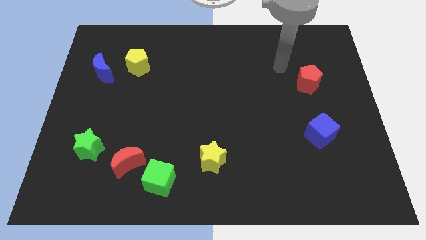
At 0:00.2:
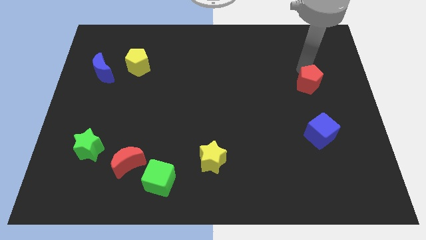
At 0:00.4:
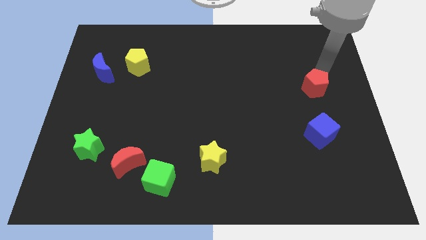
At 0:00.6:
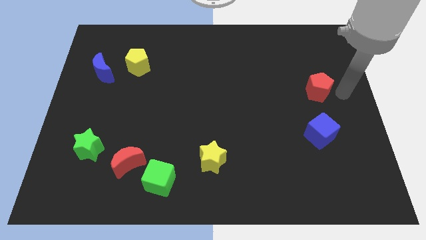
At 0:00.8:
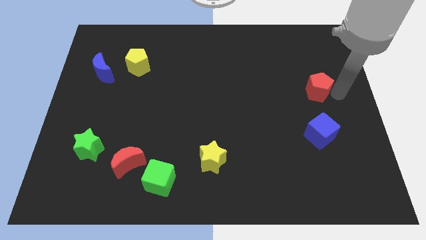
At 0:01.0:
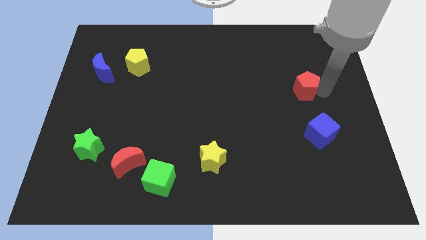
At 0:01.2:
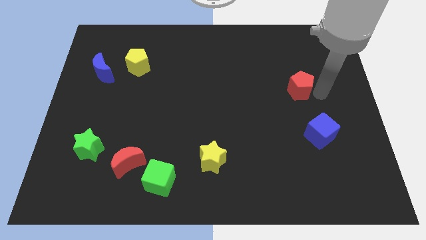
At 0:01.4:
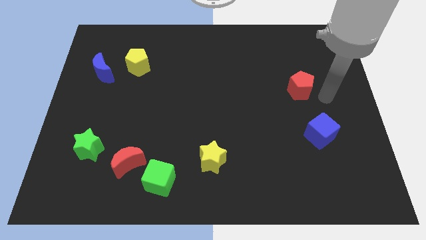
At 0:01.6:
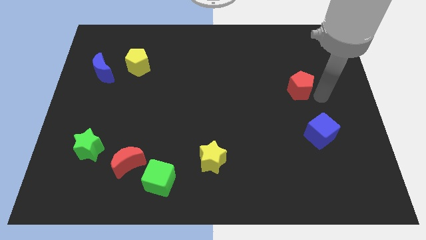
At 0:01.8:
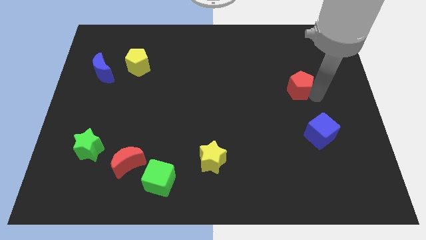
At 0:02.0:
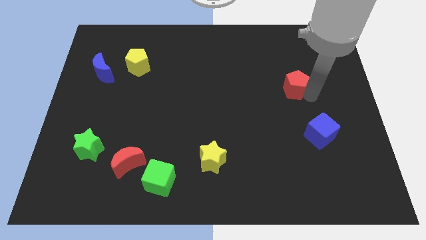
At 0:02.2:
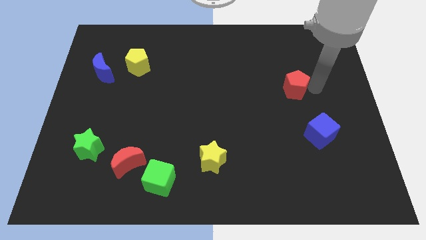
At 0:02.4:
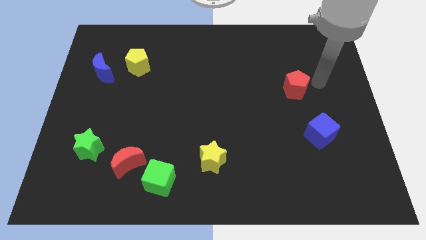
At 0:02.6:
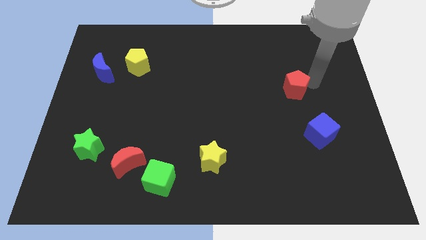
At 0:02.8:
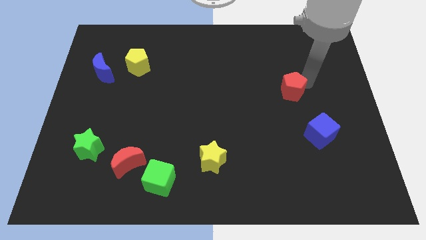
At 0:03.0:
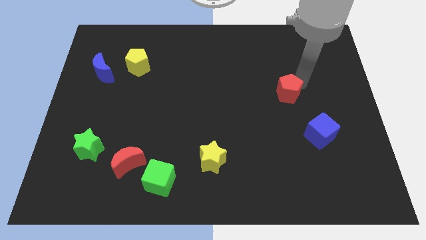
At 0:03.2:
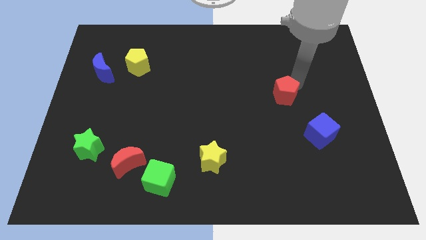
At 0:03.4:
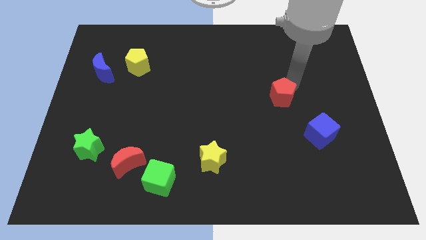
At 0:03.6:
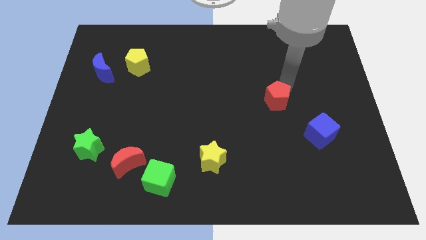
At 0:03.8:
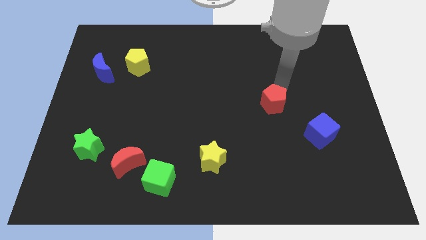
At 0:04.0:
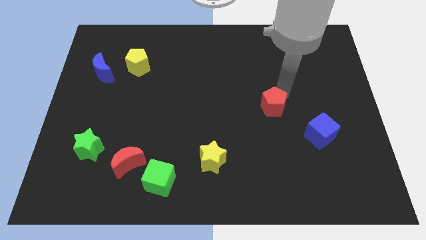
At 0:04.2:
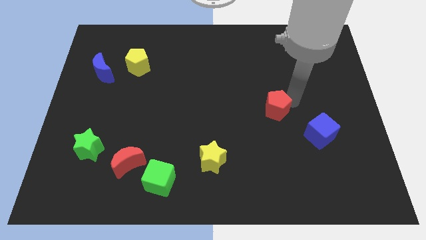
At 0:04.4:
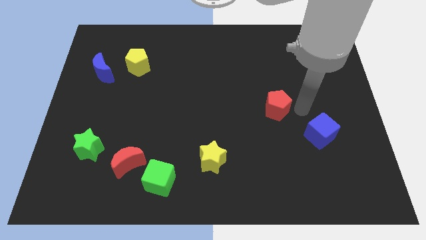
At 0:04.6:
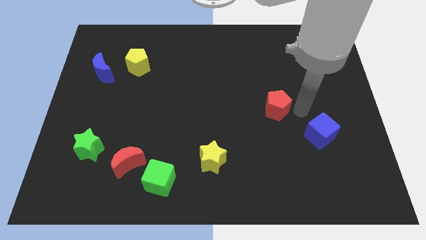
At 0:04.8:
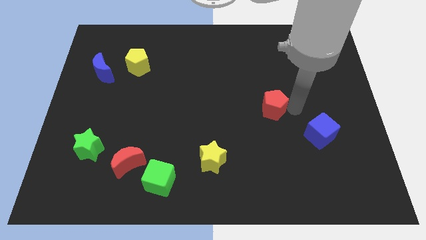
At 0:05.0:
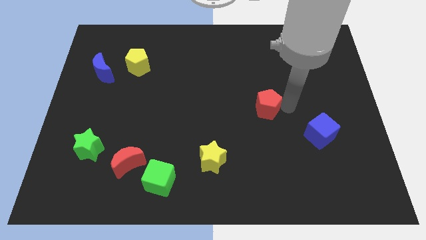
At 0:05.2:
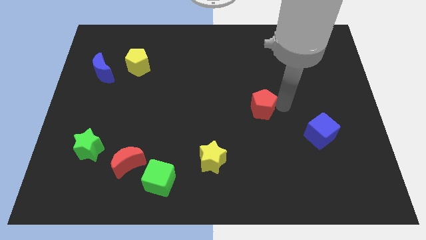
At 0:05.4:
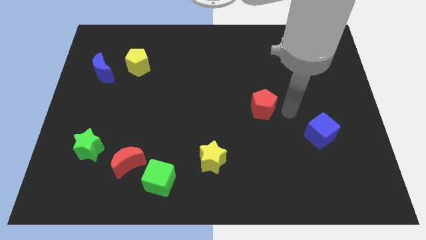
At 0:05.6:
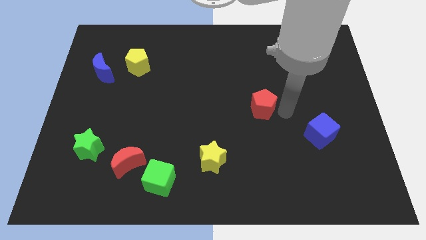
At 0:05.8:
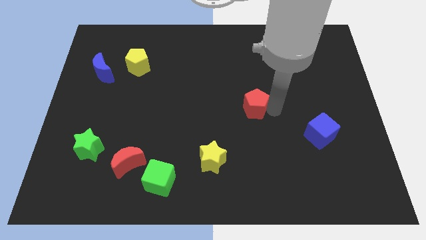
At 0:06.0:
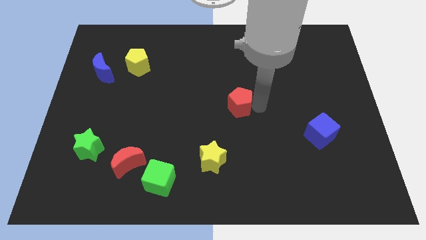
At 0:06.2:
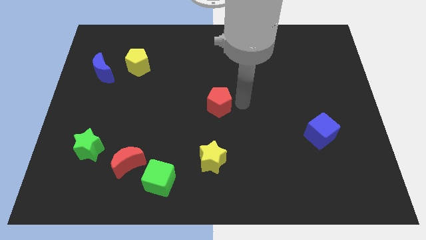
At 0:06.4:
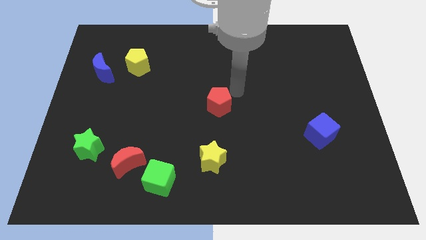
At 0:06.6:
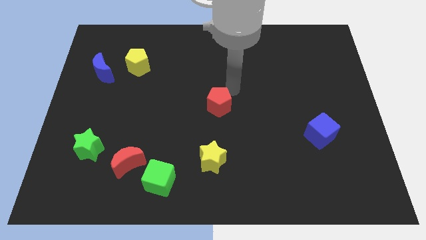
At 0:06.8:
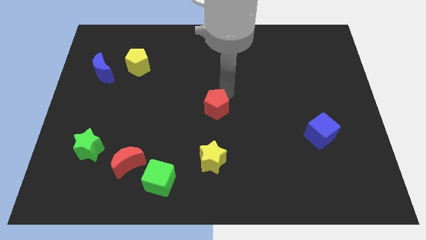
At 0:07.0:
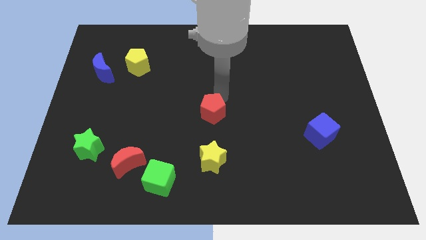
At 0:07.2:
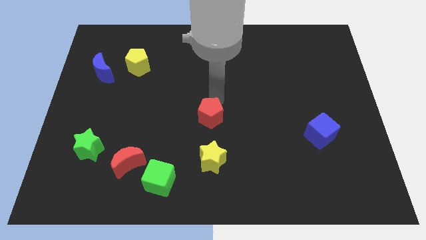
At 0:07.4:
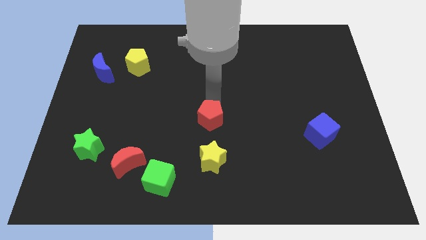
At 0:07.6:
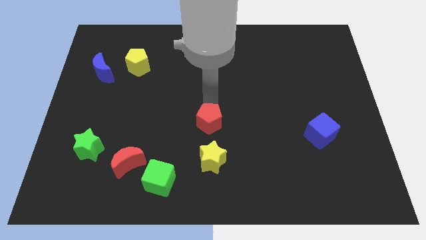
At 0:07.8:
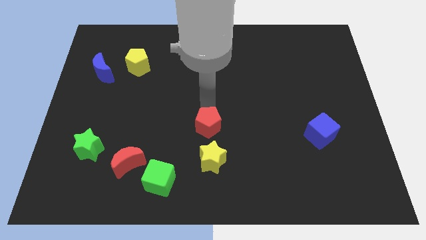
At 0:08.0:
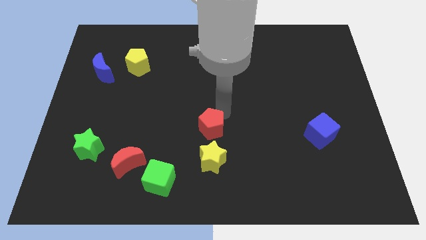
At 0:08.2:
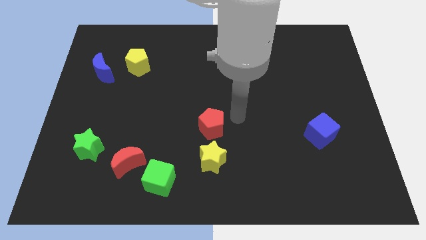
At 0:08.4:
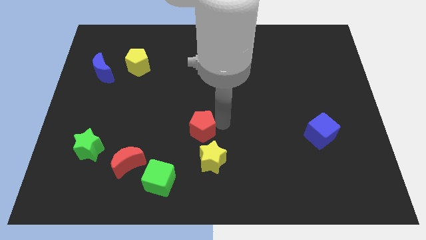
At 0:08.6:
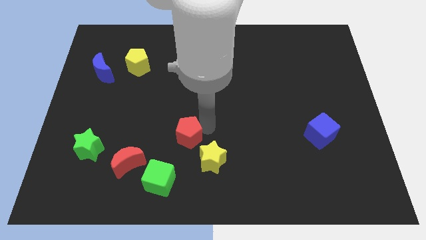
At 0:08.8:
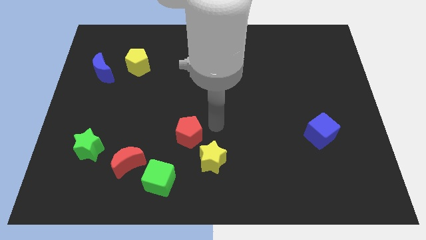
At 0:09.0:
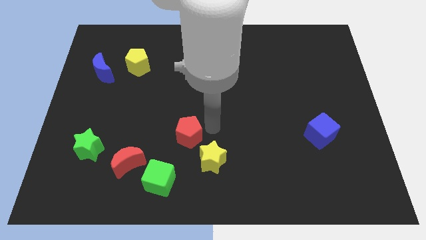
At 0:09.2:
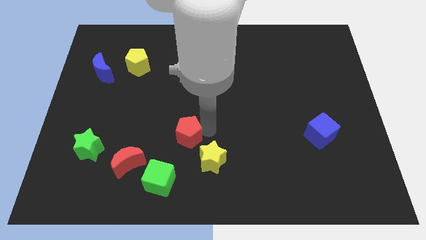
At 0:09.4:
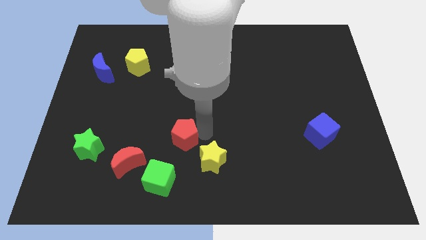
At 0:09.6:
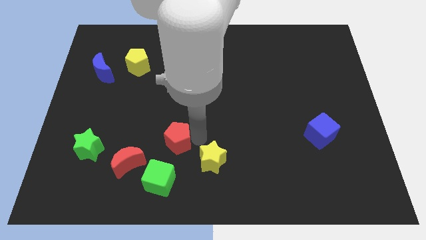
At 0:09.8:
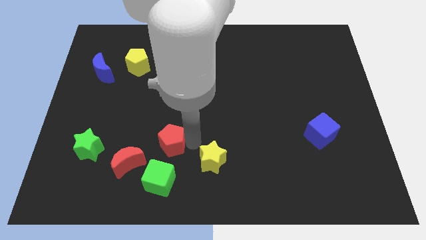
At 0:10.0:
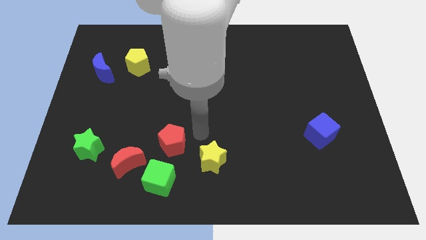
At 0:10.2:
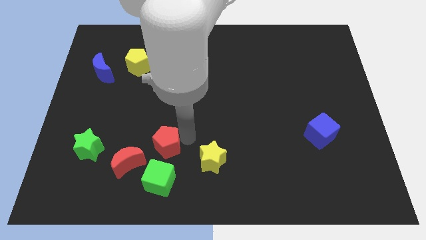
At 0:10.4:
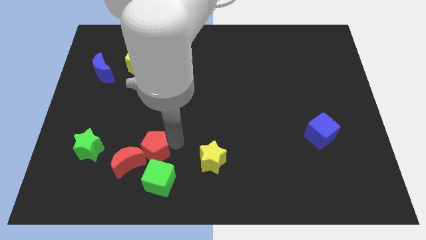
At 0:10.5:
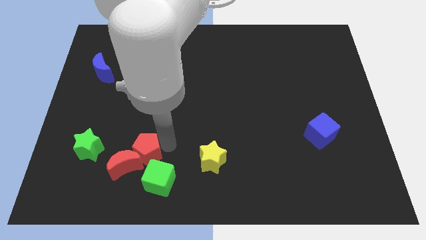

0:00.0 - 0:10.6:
move the red pentagon to the red moon

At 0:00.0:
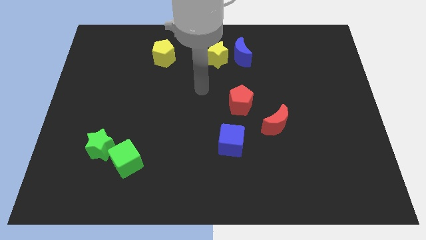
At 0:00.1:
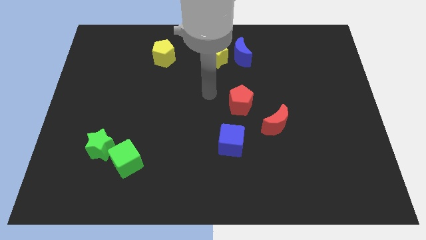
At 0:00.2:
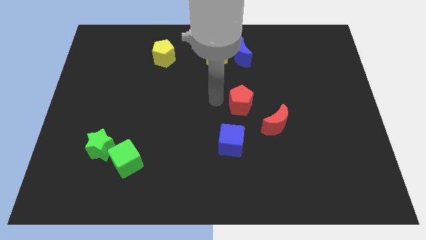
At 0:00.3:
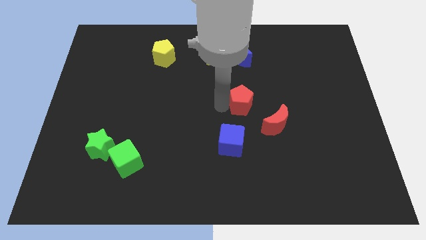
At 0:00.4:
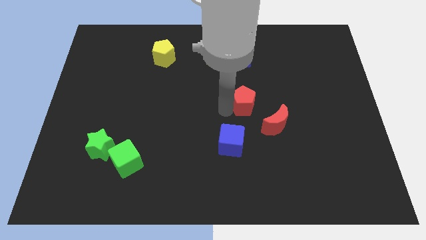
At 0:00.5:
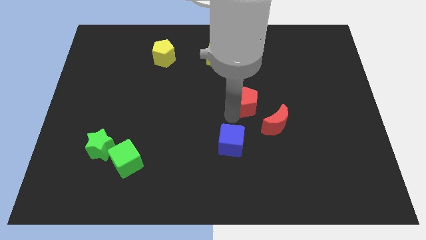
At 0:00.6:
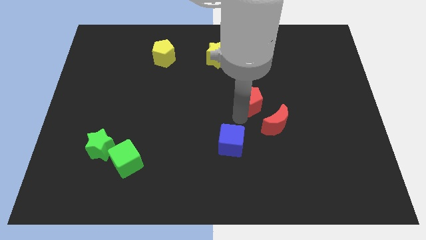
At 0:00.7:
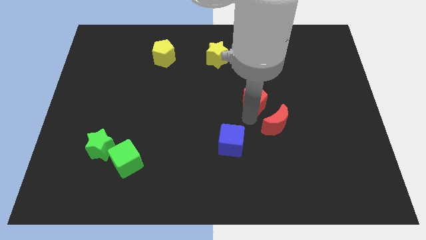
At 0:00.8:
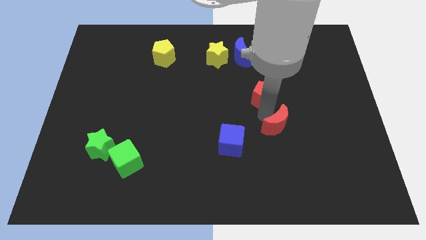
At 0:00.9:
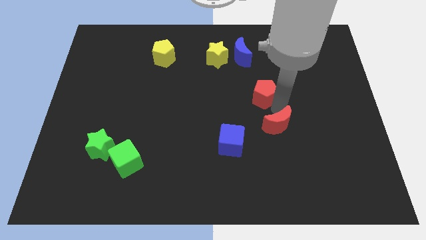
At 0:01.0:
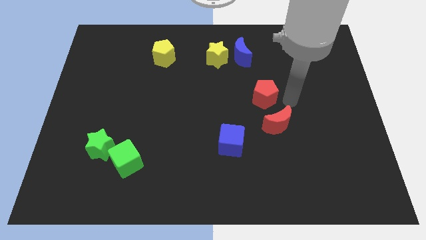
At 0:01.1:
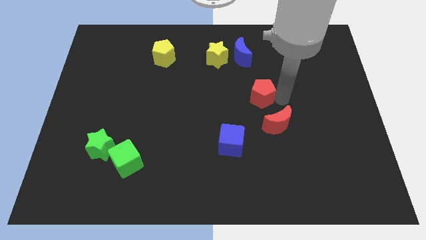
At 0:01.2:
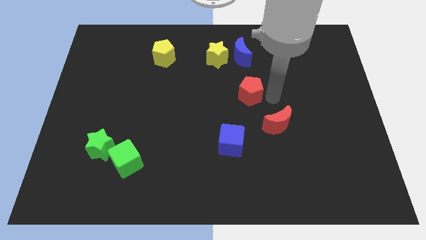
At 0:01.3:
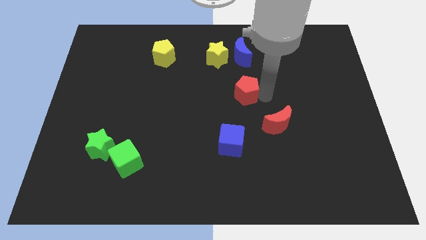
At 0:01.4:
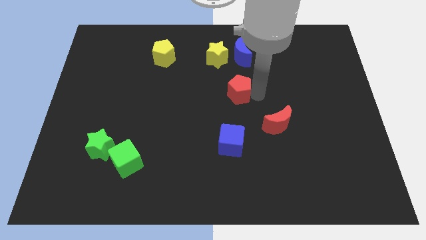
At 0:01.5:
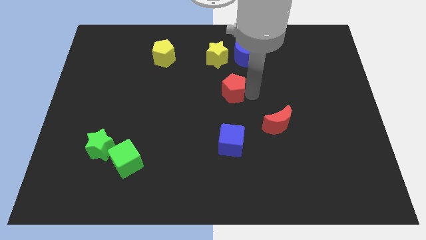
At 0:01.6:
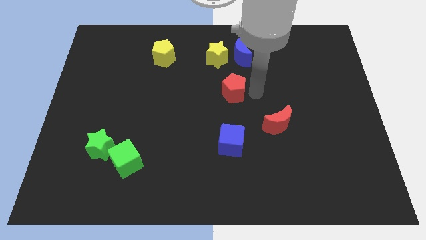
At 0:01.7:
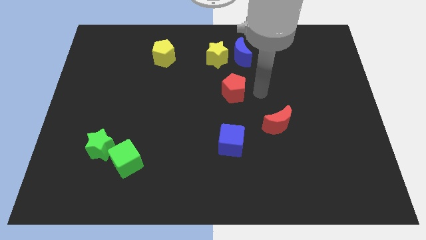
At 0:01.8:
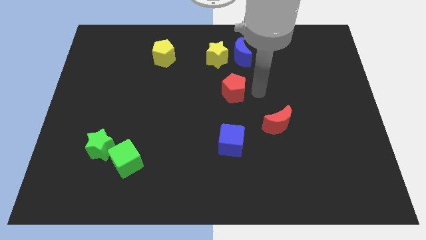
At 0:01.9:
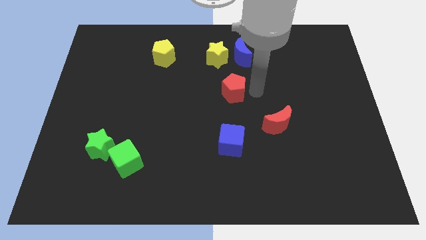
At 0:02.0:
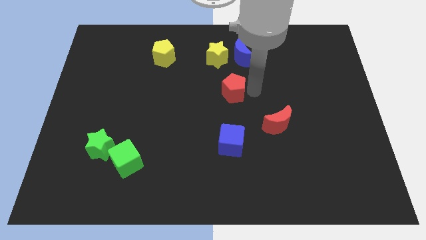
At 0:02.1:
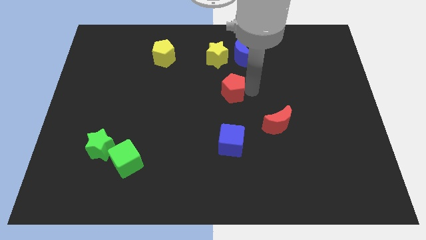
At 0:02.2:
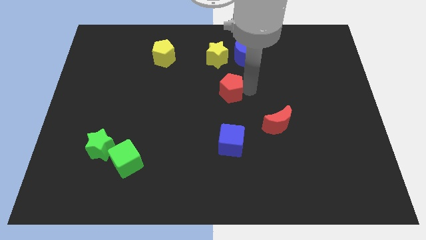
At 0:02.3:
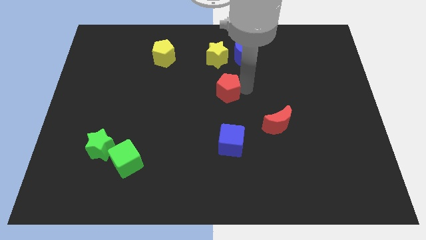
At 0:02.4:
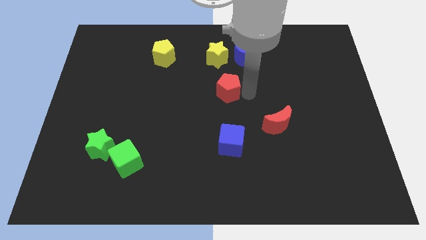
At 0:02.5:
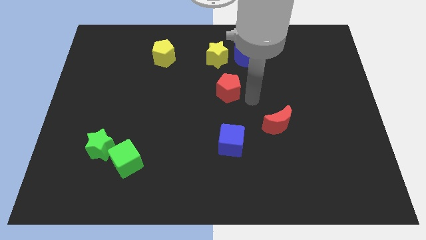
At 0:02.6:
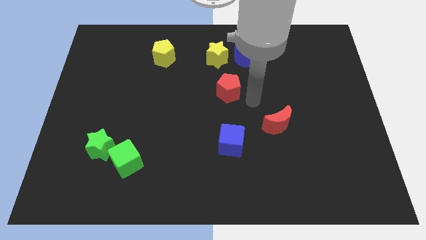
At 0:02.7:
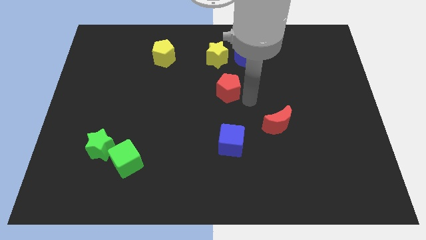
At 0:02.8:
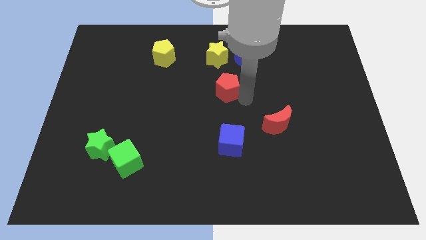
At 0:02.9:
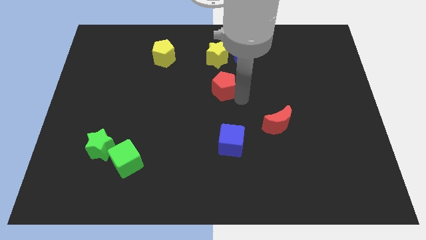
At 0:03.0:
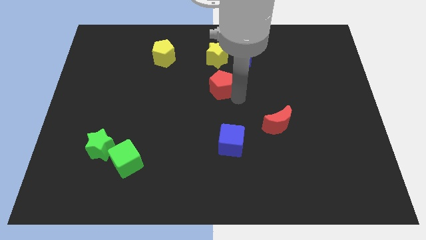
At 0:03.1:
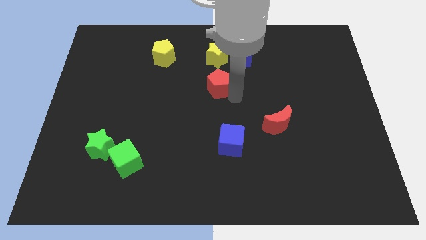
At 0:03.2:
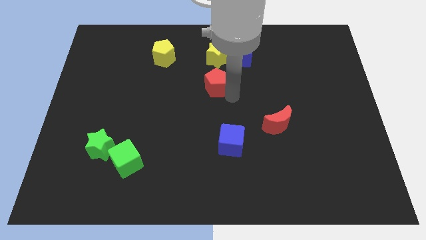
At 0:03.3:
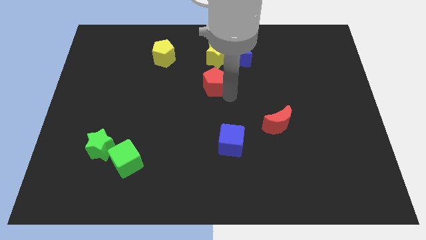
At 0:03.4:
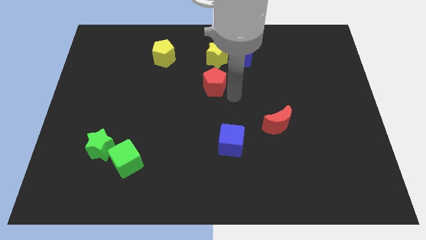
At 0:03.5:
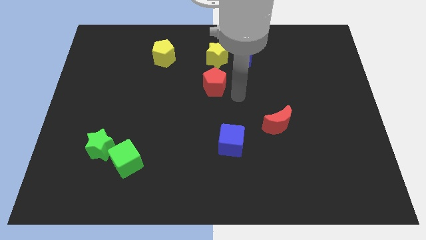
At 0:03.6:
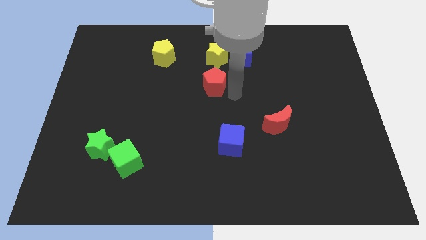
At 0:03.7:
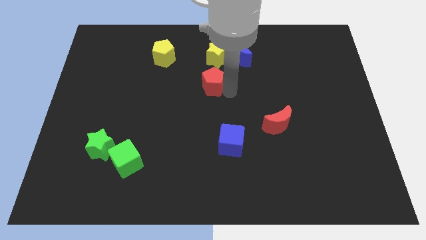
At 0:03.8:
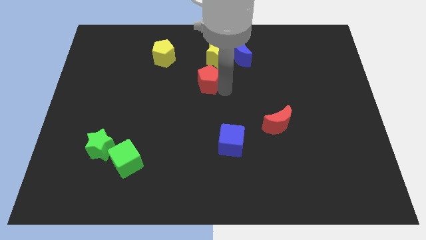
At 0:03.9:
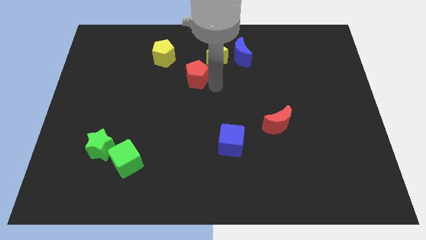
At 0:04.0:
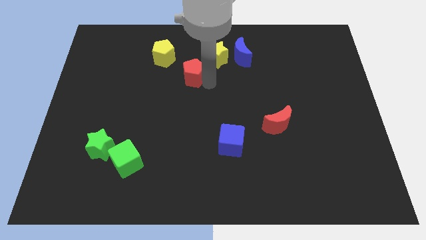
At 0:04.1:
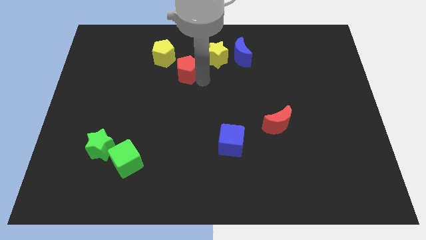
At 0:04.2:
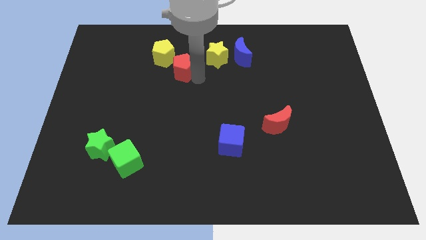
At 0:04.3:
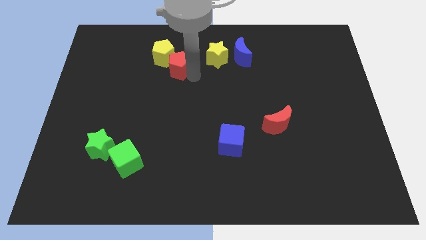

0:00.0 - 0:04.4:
put the red pentagon towards the yellow pentagon
